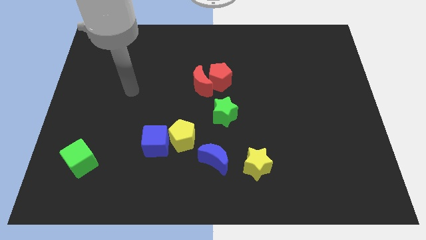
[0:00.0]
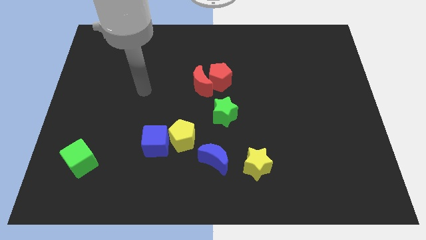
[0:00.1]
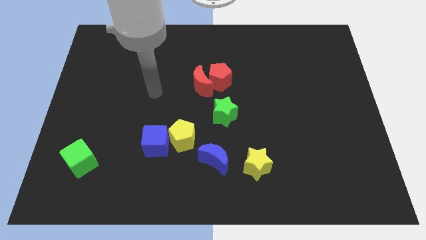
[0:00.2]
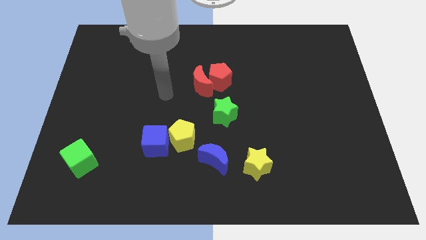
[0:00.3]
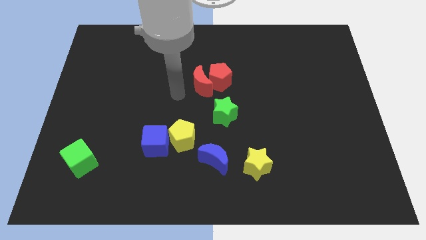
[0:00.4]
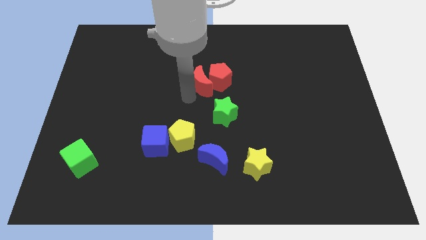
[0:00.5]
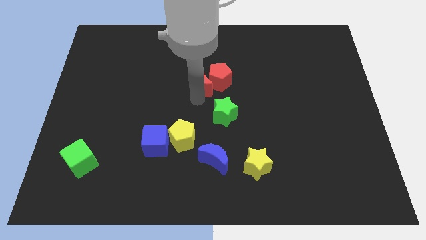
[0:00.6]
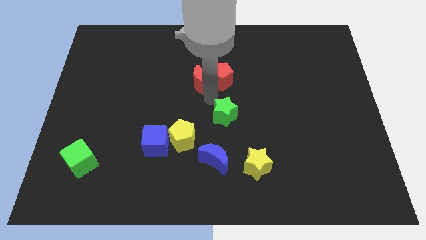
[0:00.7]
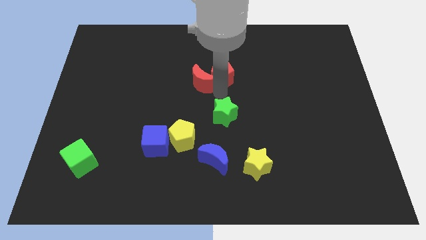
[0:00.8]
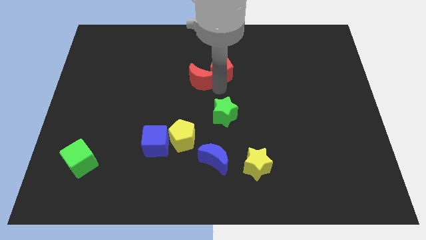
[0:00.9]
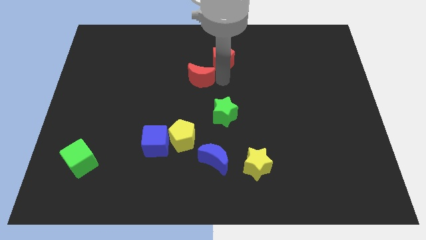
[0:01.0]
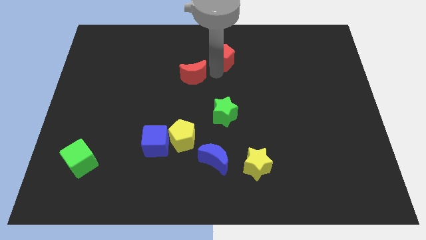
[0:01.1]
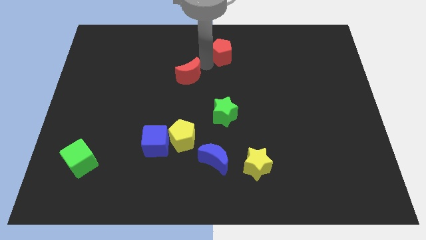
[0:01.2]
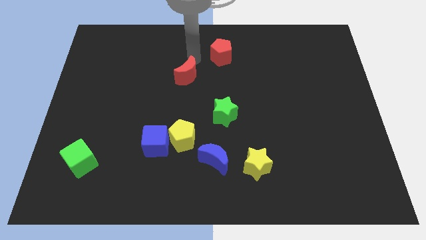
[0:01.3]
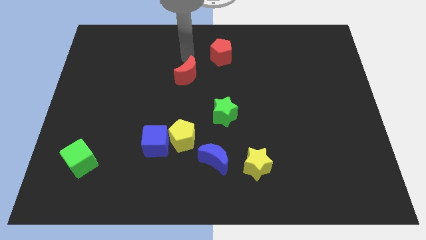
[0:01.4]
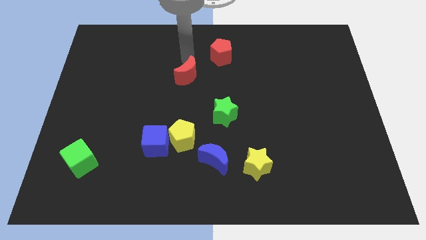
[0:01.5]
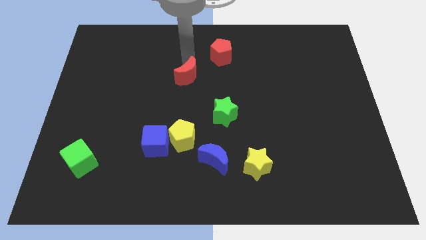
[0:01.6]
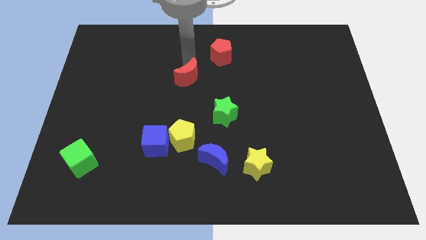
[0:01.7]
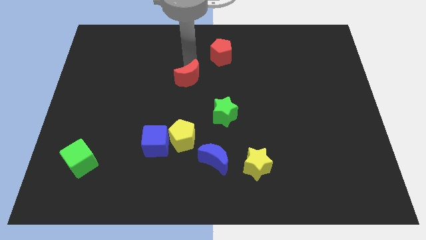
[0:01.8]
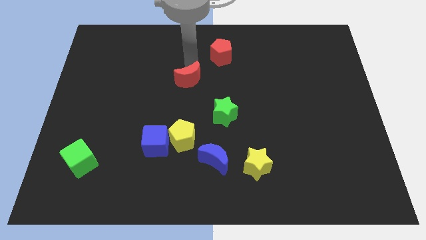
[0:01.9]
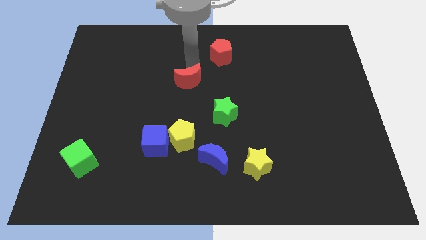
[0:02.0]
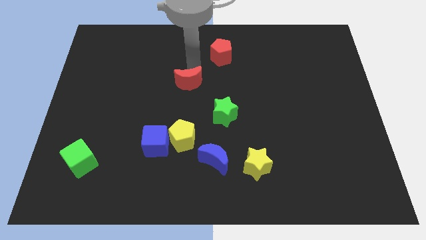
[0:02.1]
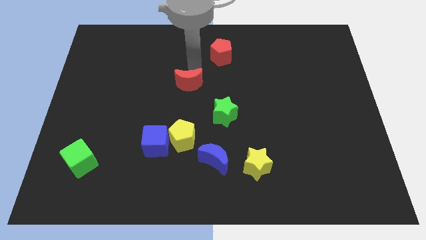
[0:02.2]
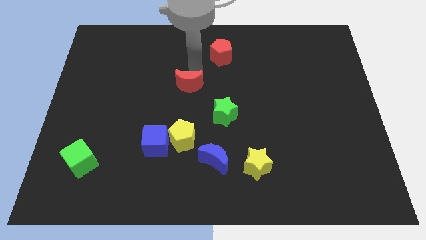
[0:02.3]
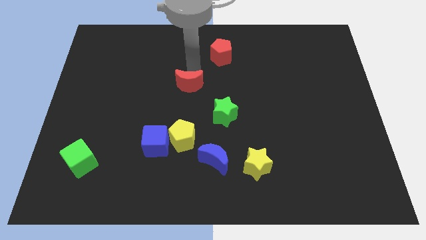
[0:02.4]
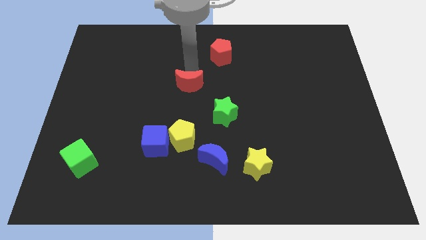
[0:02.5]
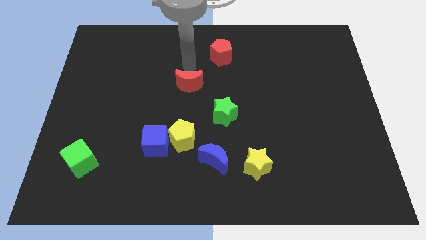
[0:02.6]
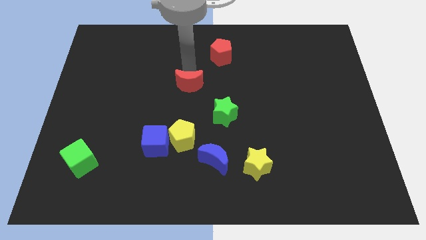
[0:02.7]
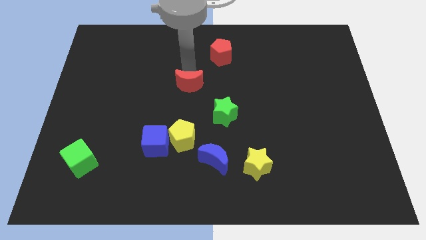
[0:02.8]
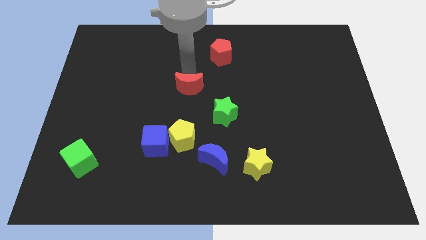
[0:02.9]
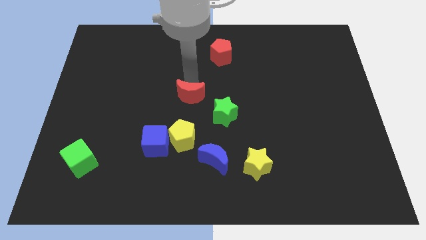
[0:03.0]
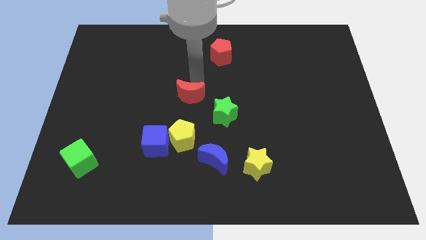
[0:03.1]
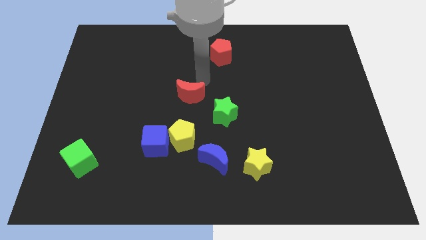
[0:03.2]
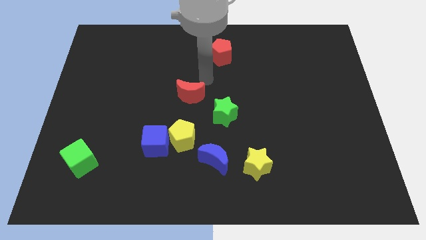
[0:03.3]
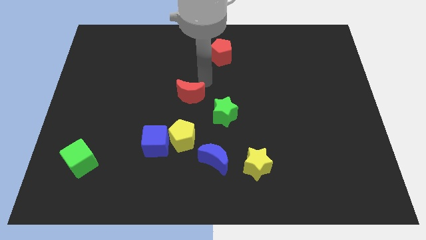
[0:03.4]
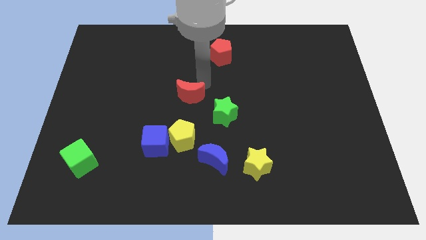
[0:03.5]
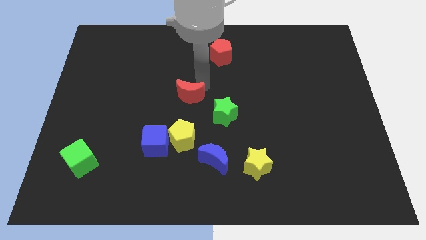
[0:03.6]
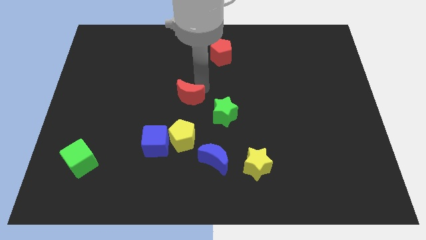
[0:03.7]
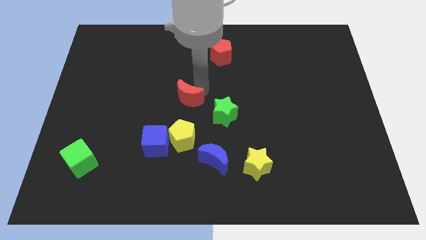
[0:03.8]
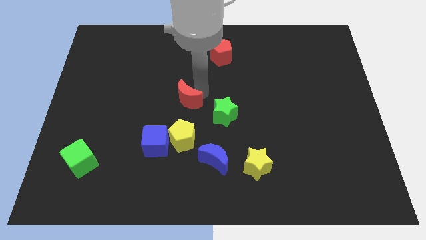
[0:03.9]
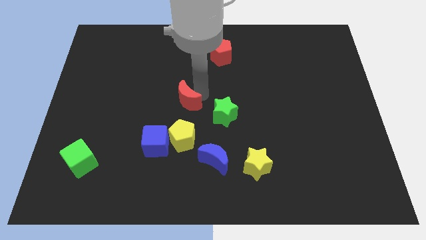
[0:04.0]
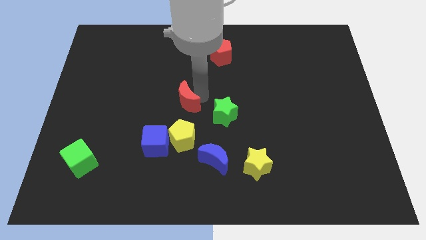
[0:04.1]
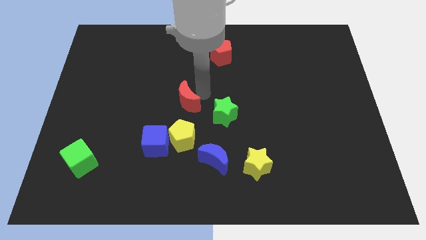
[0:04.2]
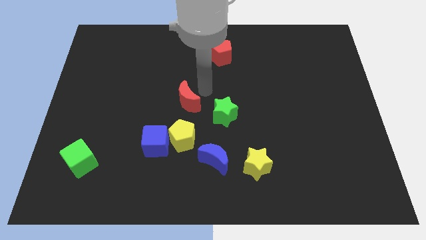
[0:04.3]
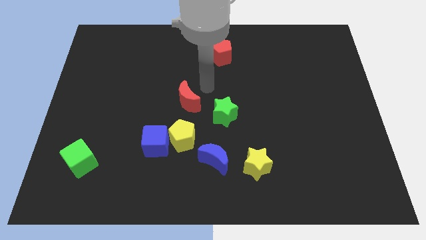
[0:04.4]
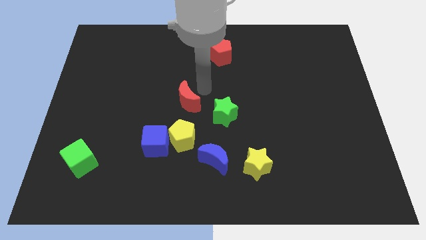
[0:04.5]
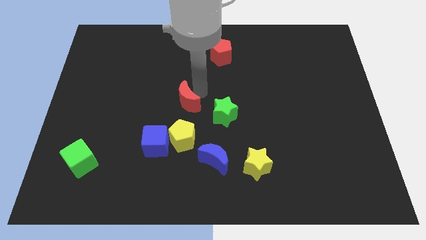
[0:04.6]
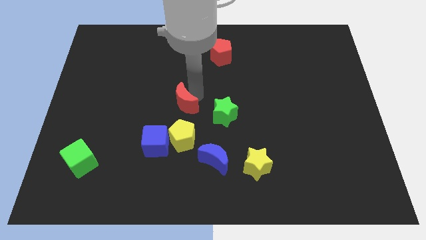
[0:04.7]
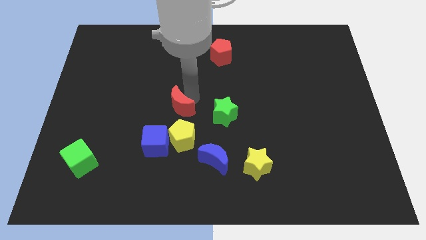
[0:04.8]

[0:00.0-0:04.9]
push the red moon a little bit down and then left

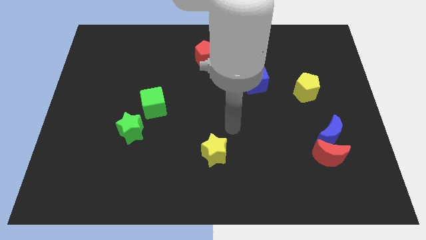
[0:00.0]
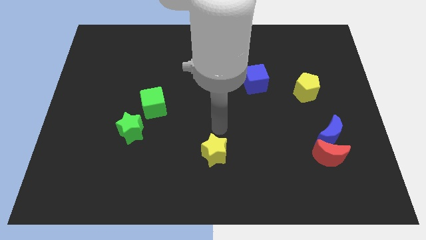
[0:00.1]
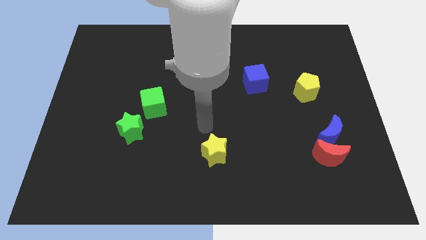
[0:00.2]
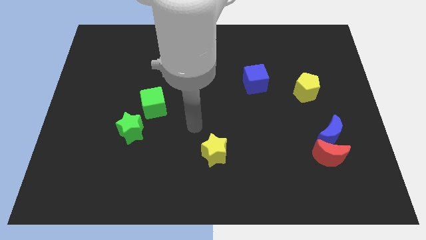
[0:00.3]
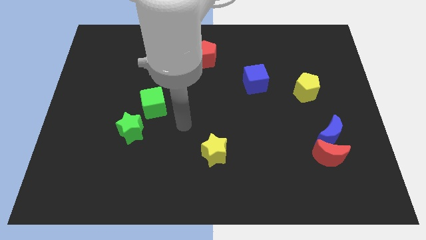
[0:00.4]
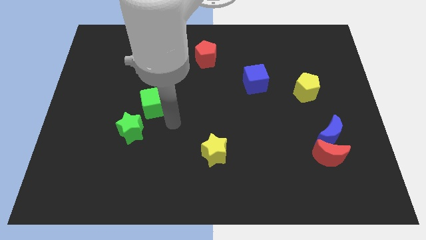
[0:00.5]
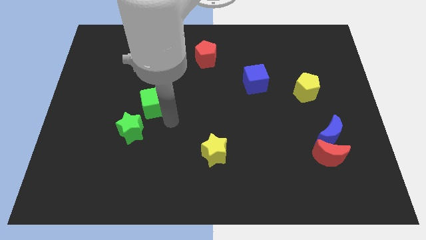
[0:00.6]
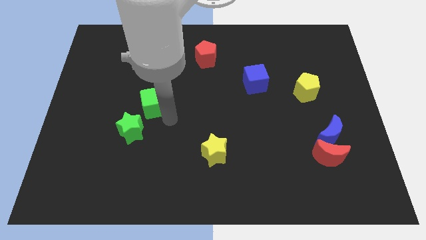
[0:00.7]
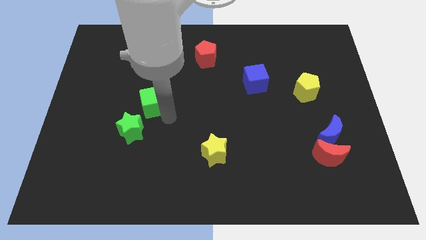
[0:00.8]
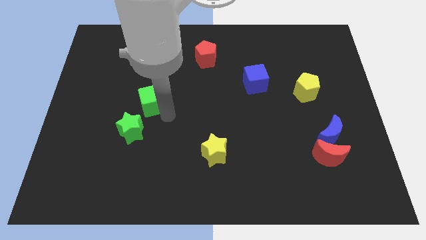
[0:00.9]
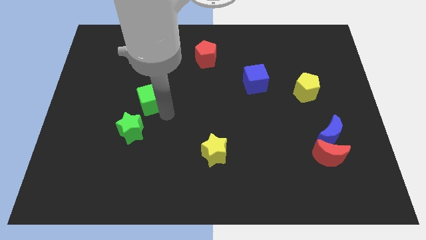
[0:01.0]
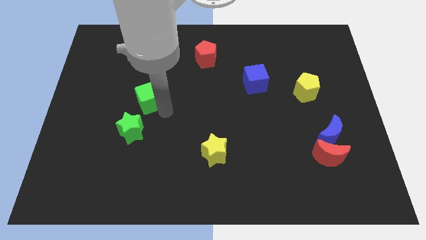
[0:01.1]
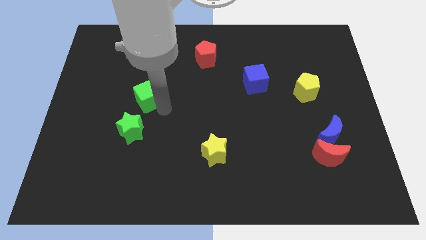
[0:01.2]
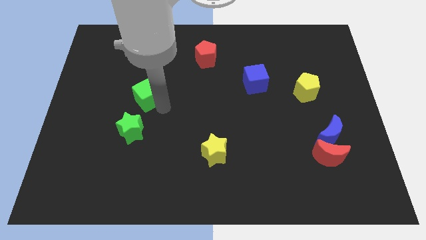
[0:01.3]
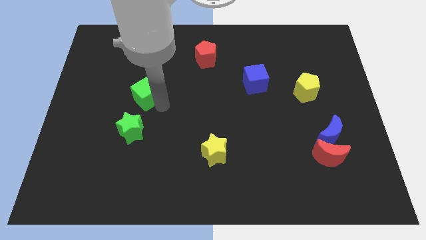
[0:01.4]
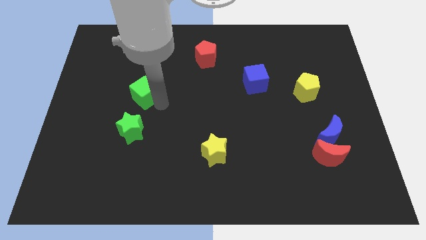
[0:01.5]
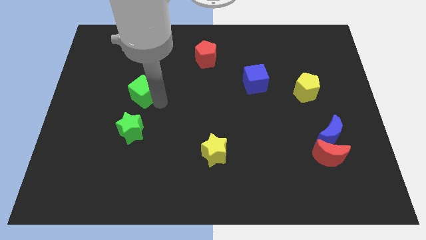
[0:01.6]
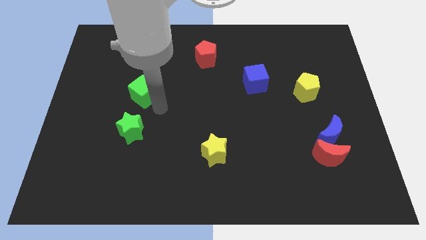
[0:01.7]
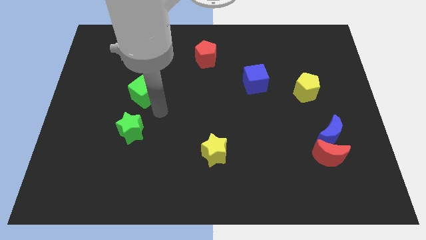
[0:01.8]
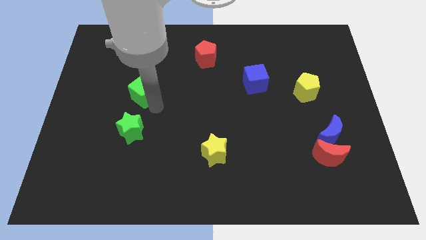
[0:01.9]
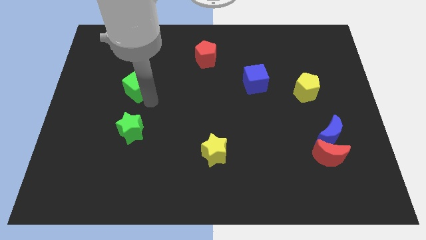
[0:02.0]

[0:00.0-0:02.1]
slightly move the green cube upwards and then left

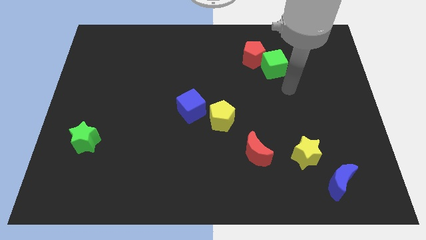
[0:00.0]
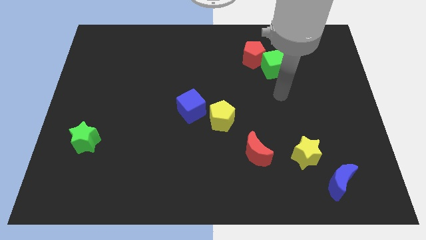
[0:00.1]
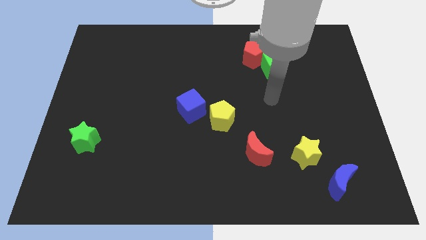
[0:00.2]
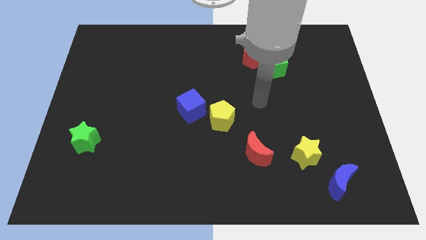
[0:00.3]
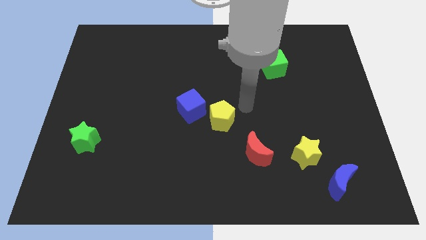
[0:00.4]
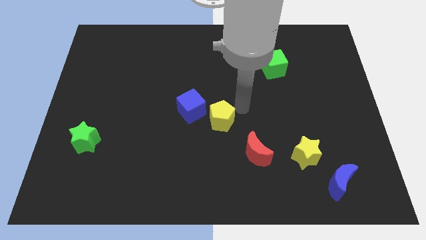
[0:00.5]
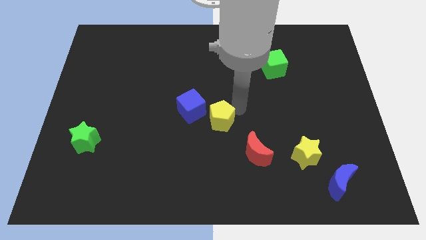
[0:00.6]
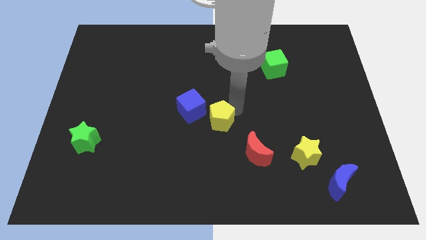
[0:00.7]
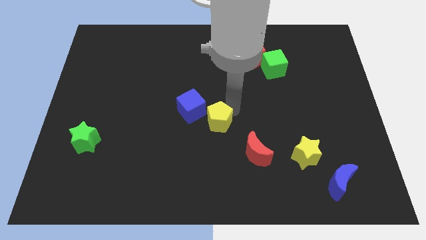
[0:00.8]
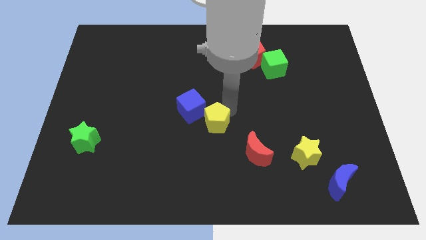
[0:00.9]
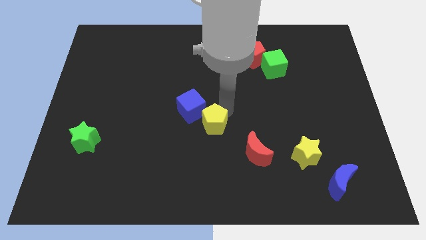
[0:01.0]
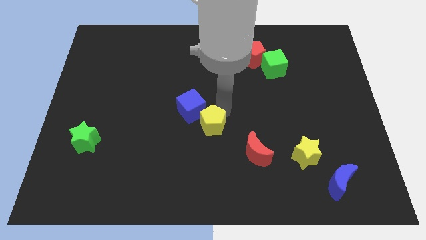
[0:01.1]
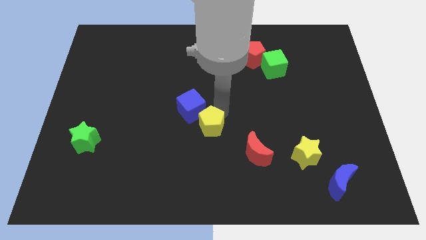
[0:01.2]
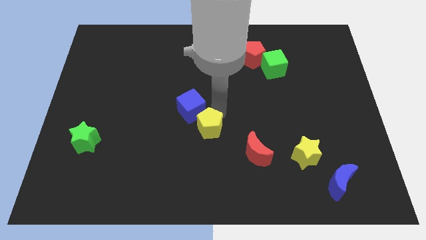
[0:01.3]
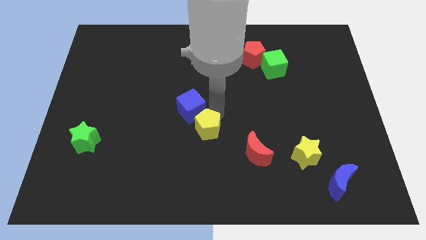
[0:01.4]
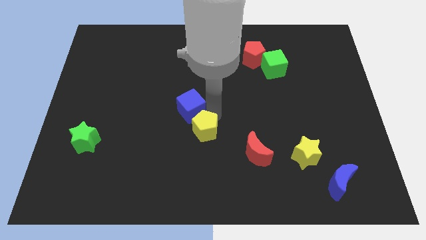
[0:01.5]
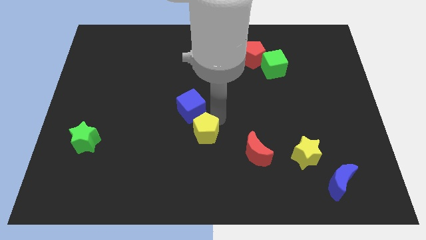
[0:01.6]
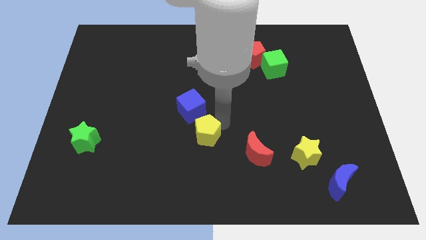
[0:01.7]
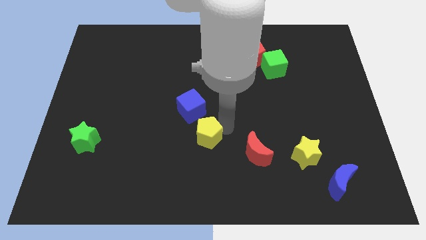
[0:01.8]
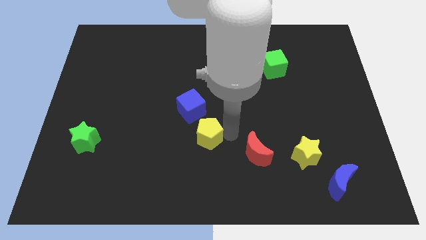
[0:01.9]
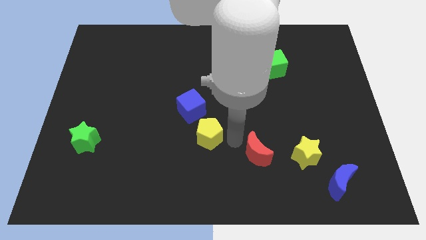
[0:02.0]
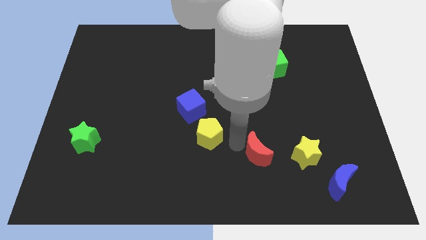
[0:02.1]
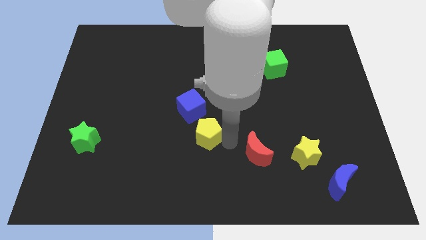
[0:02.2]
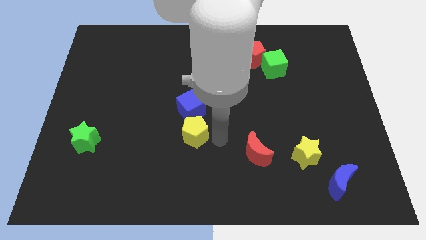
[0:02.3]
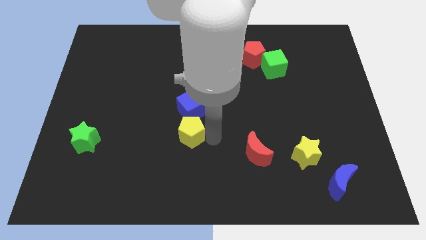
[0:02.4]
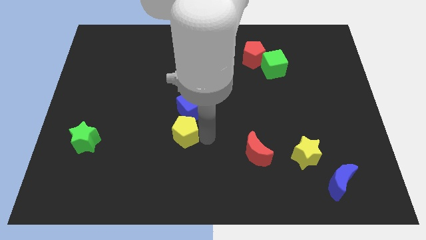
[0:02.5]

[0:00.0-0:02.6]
push the yellow pentagon to the left a bit
